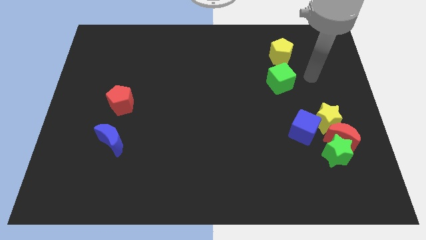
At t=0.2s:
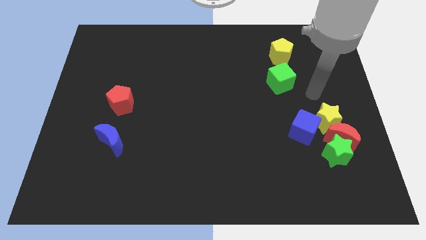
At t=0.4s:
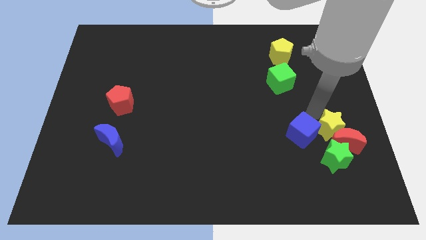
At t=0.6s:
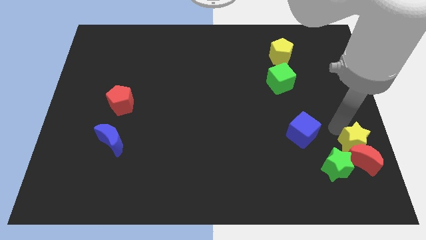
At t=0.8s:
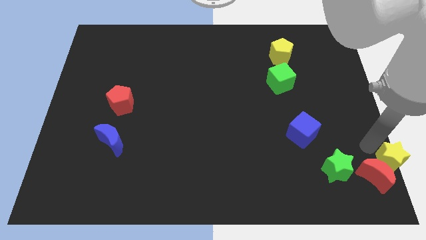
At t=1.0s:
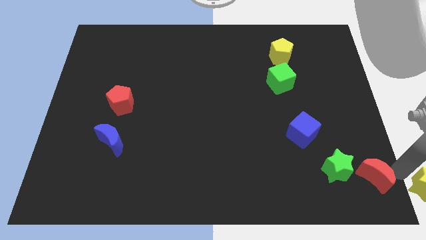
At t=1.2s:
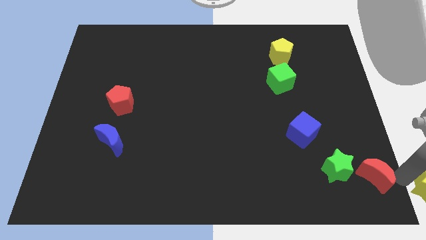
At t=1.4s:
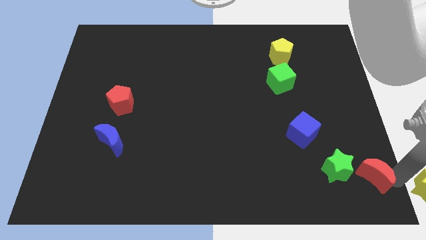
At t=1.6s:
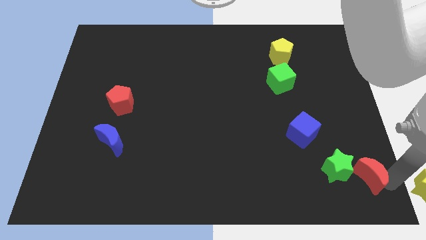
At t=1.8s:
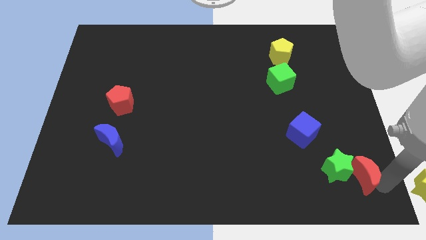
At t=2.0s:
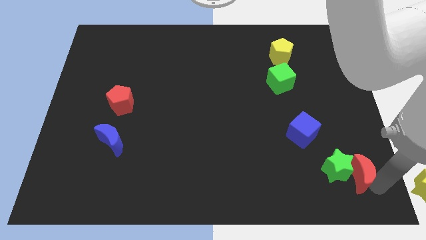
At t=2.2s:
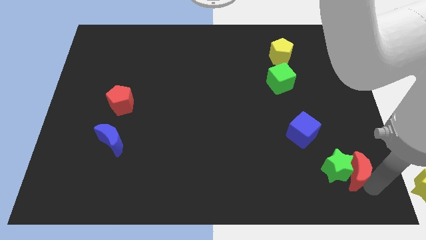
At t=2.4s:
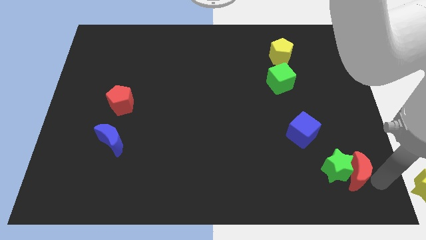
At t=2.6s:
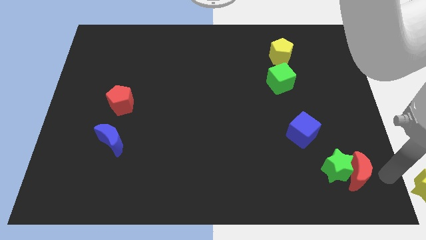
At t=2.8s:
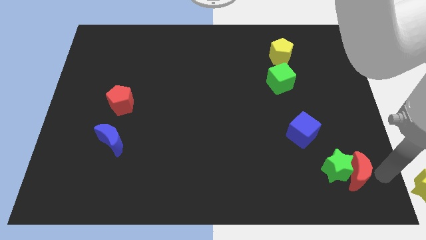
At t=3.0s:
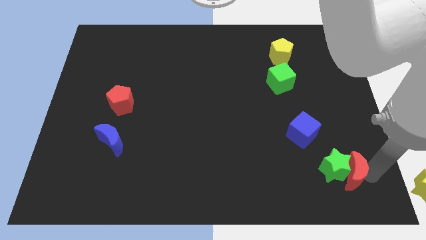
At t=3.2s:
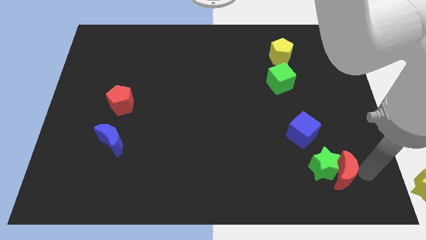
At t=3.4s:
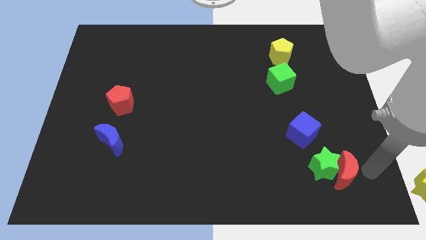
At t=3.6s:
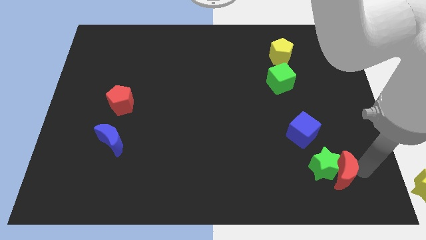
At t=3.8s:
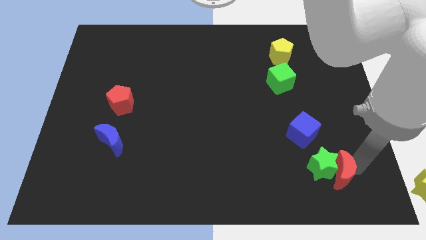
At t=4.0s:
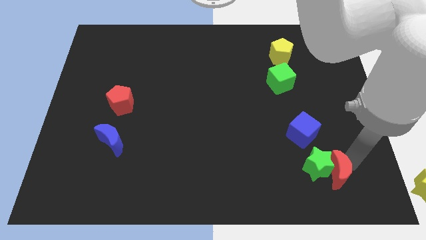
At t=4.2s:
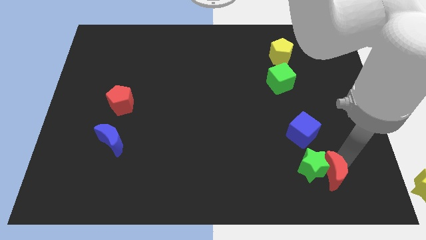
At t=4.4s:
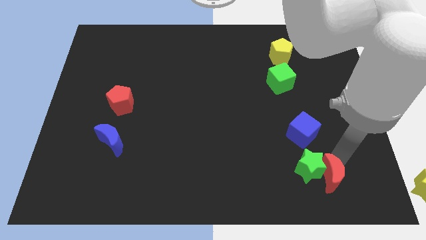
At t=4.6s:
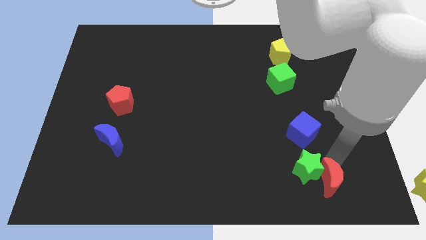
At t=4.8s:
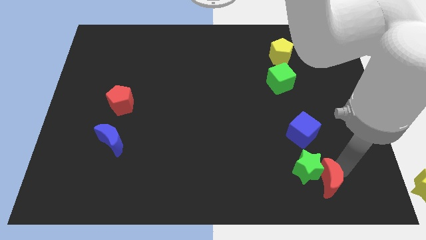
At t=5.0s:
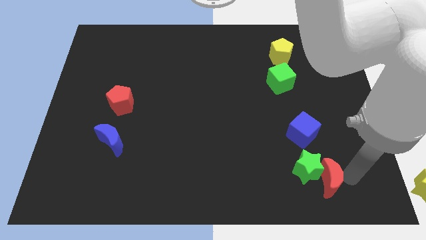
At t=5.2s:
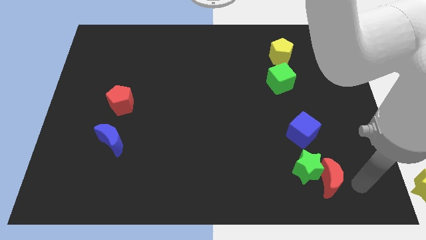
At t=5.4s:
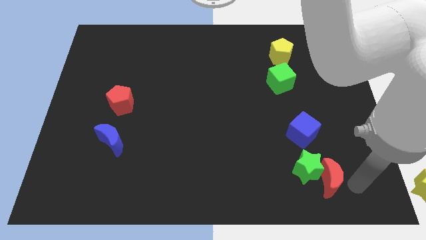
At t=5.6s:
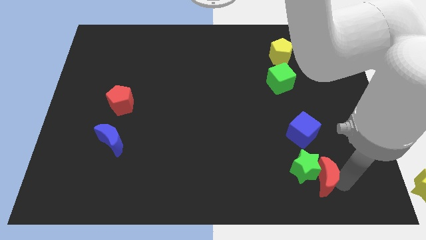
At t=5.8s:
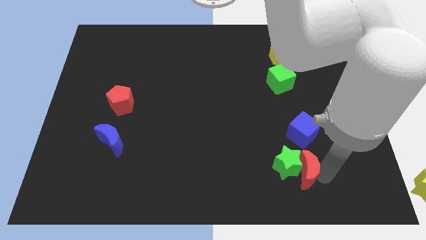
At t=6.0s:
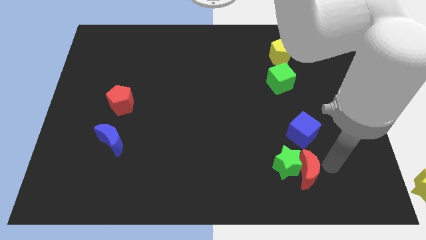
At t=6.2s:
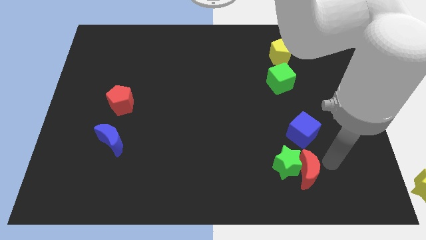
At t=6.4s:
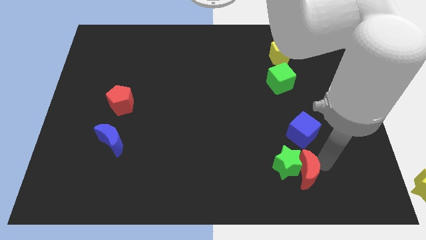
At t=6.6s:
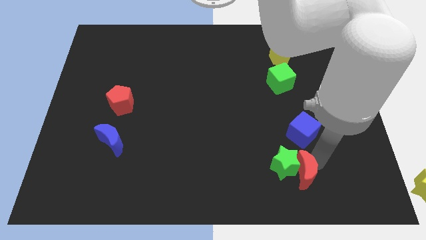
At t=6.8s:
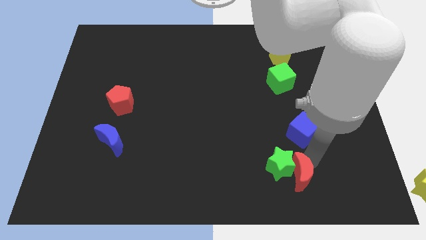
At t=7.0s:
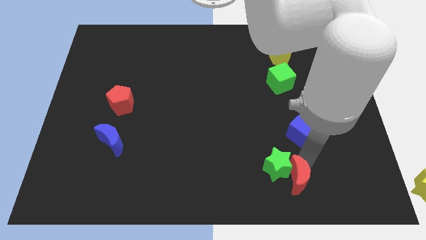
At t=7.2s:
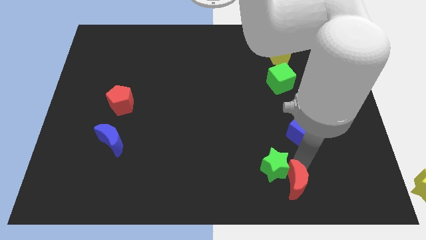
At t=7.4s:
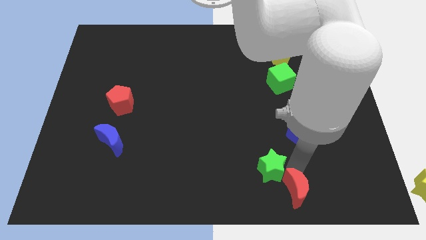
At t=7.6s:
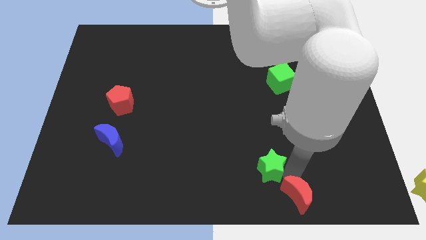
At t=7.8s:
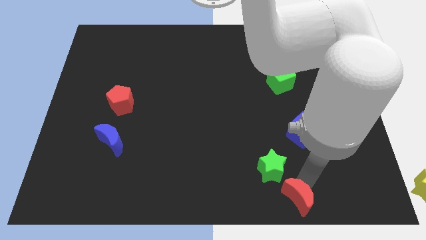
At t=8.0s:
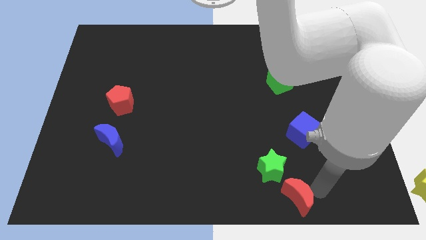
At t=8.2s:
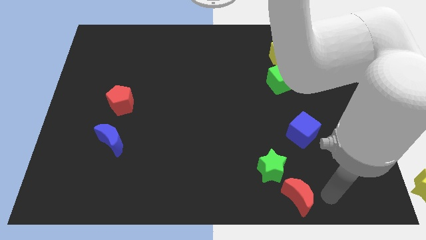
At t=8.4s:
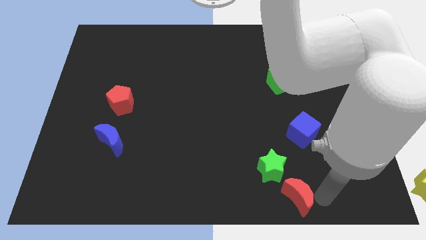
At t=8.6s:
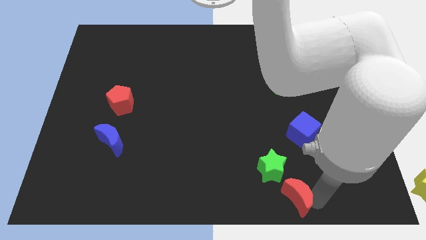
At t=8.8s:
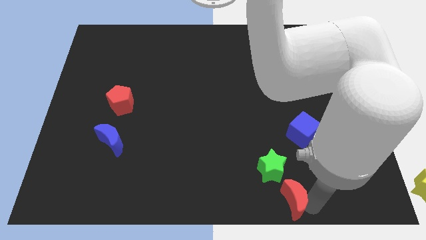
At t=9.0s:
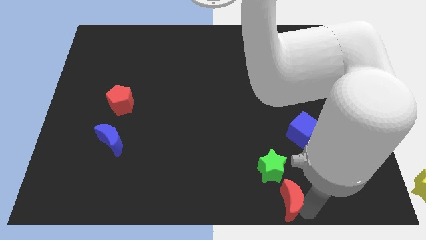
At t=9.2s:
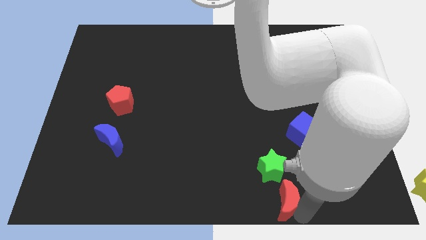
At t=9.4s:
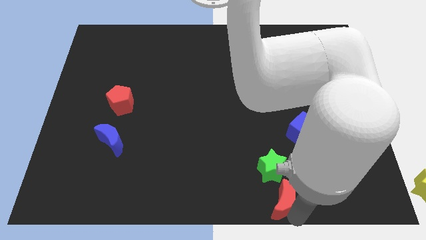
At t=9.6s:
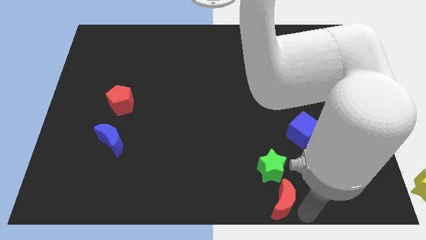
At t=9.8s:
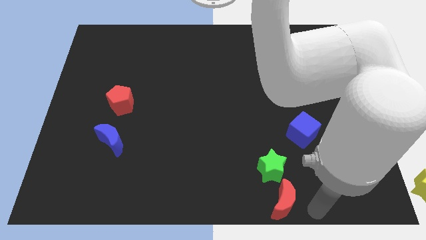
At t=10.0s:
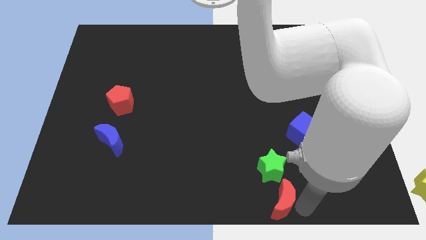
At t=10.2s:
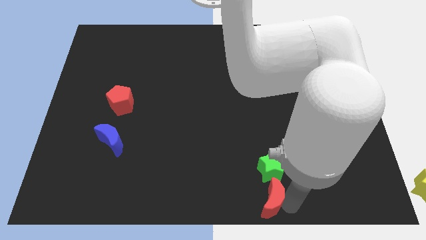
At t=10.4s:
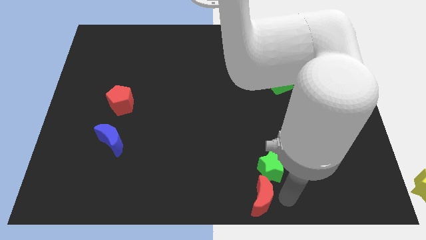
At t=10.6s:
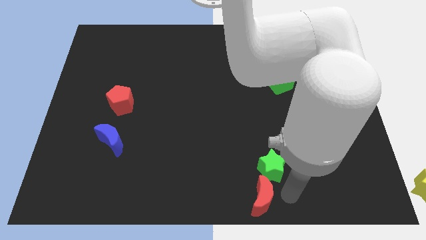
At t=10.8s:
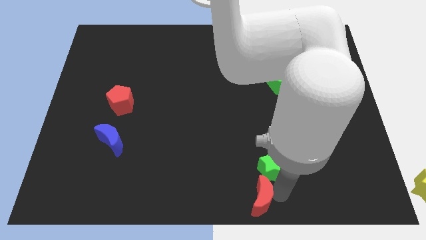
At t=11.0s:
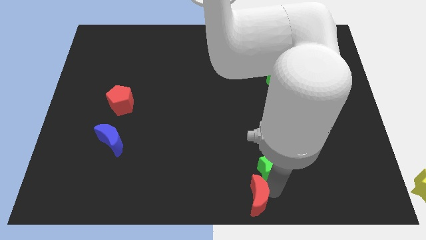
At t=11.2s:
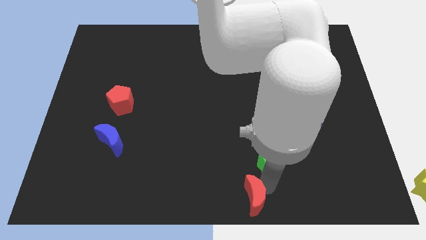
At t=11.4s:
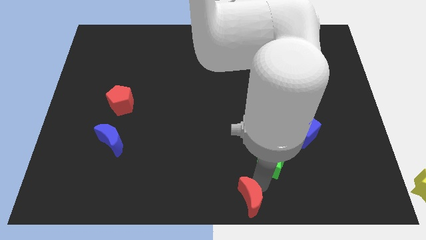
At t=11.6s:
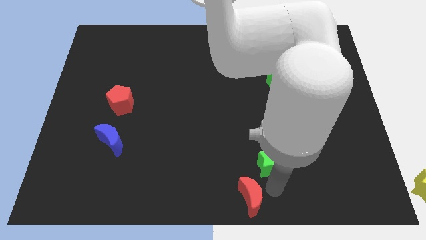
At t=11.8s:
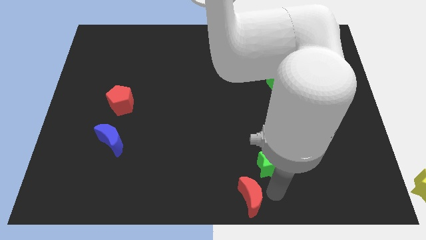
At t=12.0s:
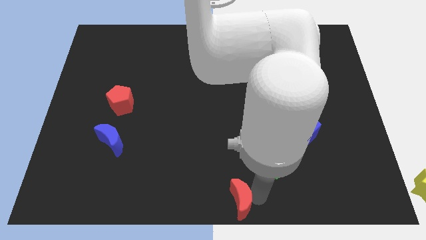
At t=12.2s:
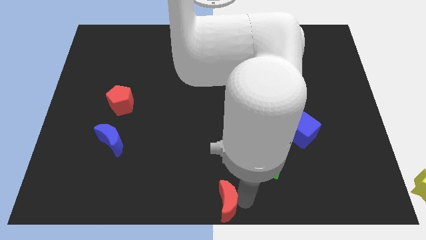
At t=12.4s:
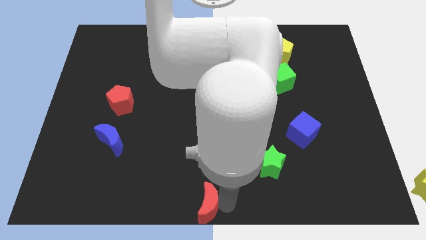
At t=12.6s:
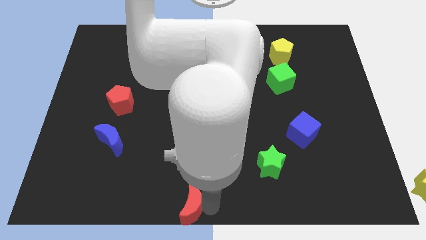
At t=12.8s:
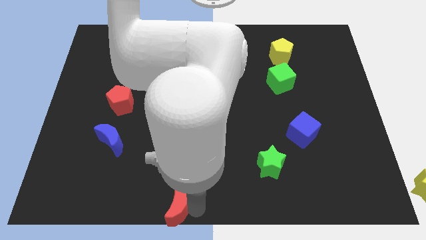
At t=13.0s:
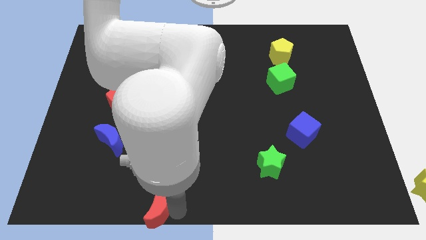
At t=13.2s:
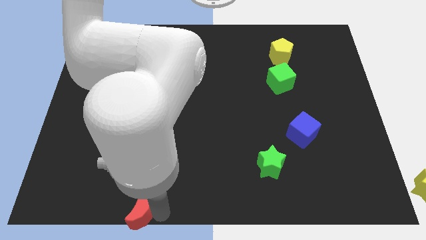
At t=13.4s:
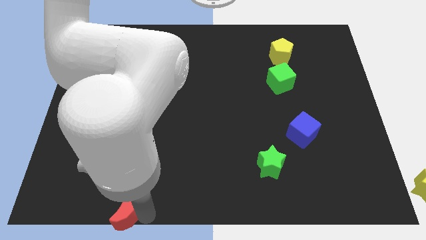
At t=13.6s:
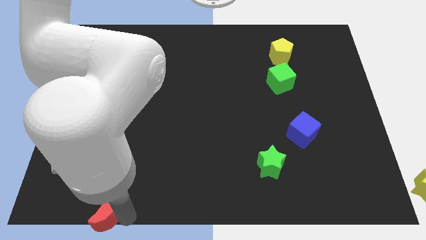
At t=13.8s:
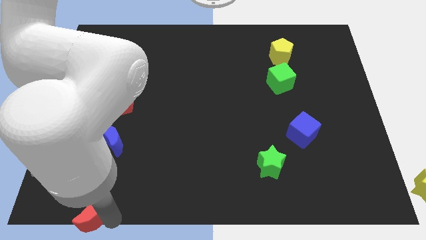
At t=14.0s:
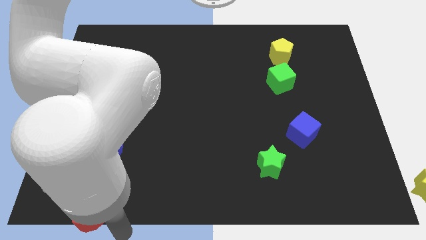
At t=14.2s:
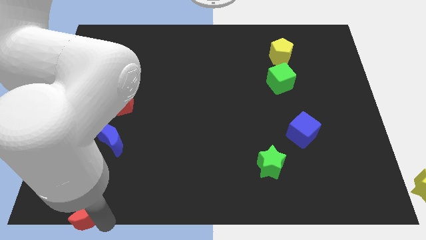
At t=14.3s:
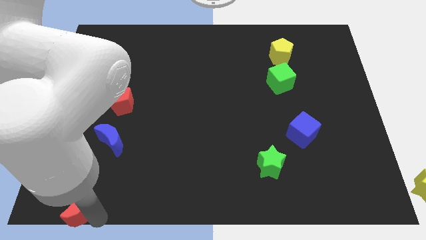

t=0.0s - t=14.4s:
move the red moon to the bottom left corner
